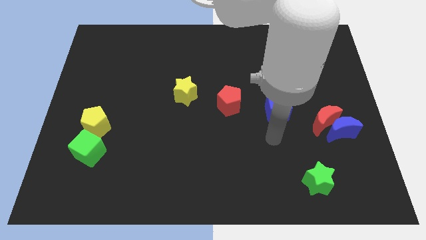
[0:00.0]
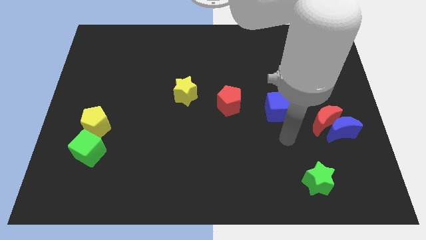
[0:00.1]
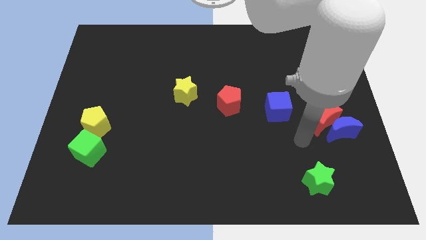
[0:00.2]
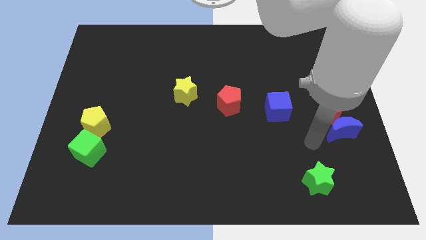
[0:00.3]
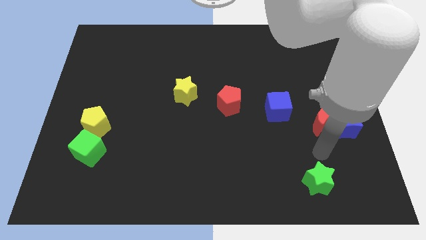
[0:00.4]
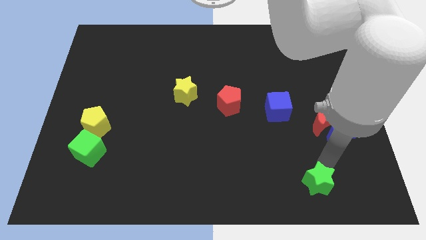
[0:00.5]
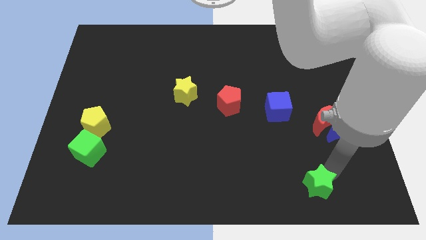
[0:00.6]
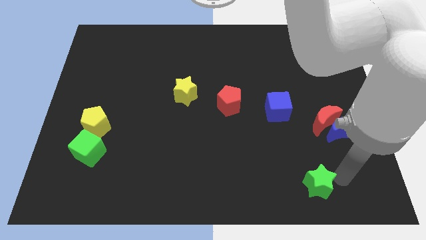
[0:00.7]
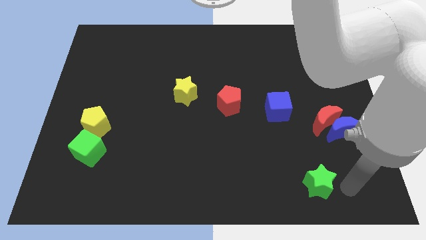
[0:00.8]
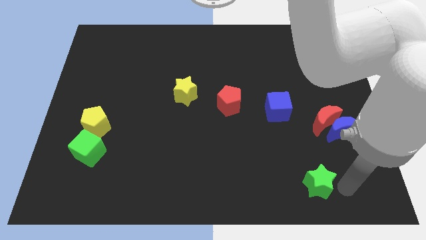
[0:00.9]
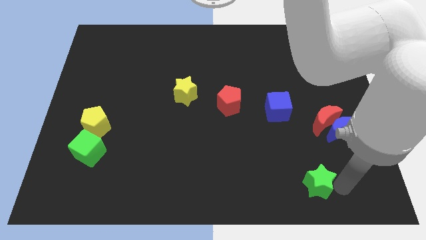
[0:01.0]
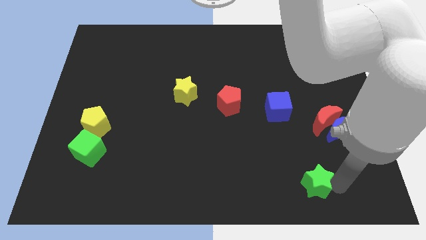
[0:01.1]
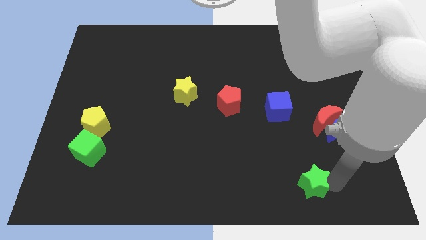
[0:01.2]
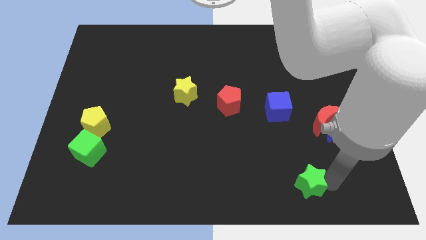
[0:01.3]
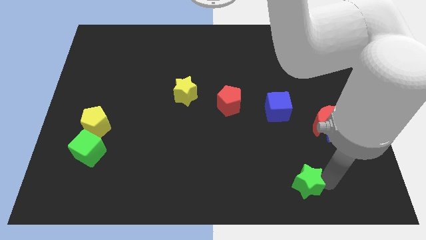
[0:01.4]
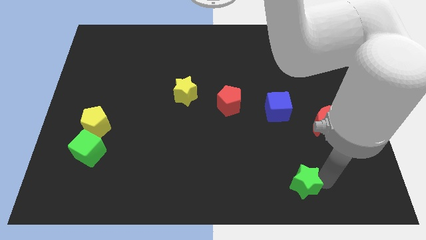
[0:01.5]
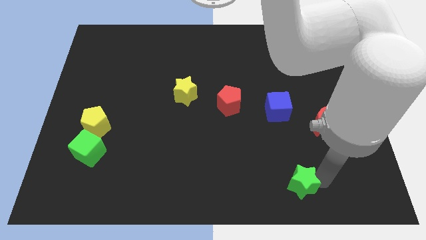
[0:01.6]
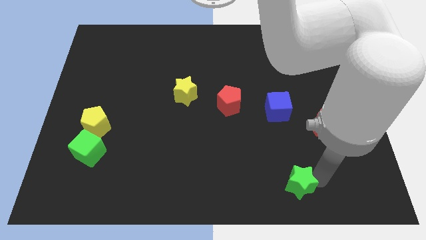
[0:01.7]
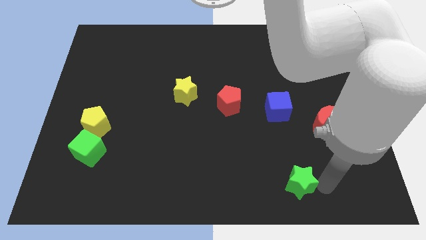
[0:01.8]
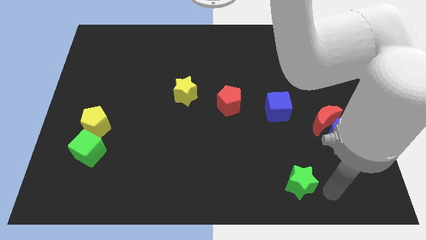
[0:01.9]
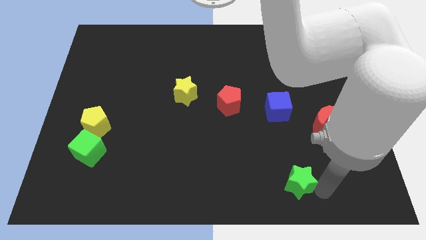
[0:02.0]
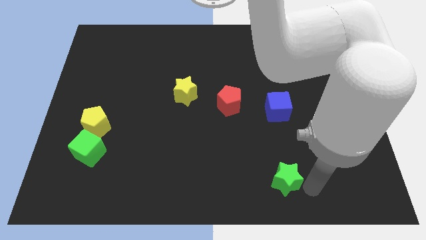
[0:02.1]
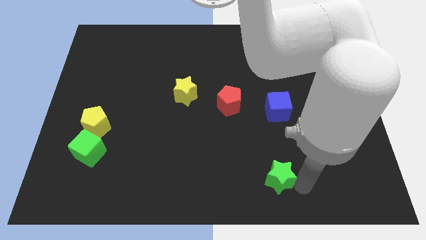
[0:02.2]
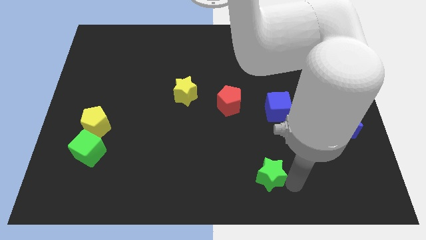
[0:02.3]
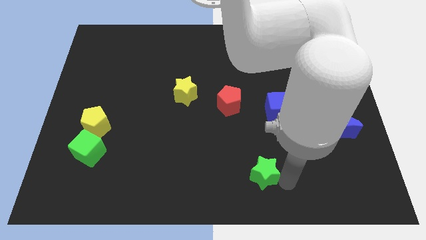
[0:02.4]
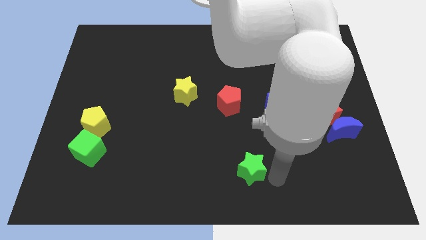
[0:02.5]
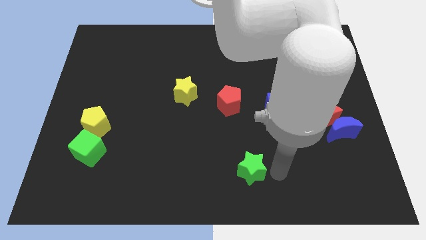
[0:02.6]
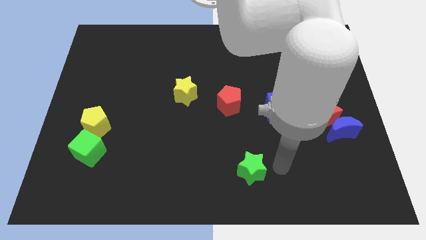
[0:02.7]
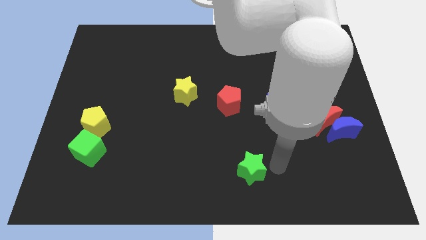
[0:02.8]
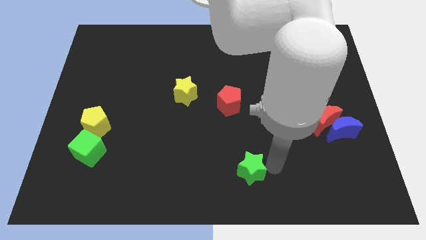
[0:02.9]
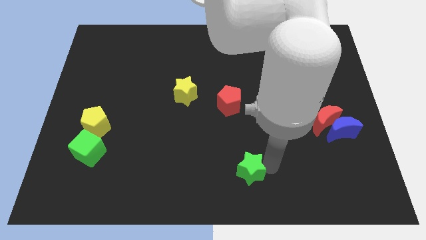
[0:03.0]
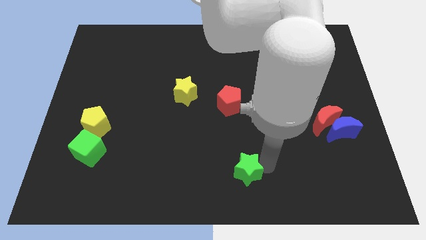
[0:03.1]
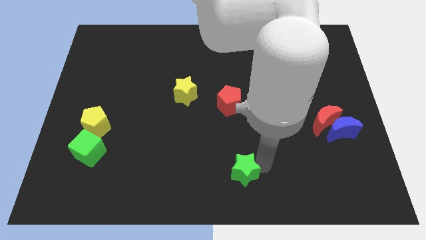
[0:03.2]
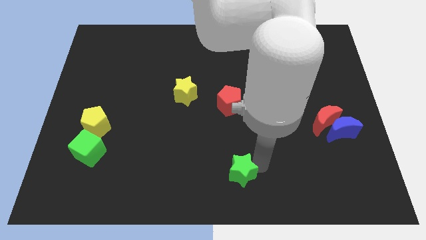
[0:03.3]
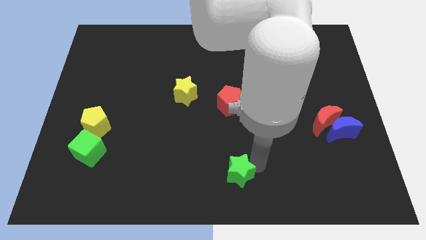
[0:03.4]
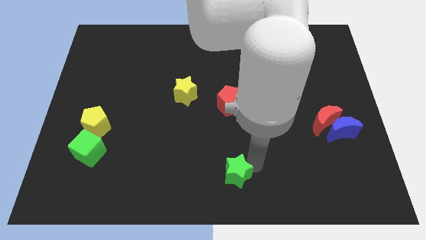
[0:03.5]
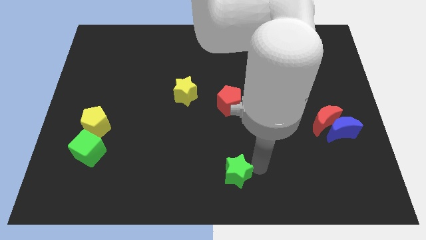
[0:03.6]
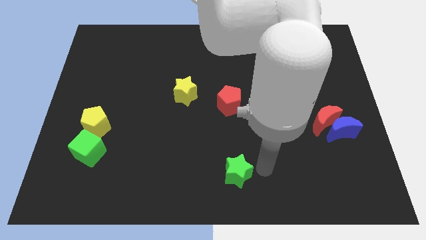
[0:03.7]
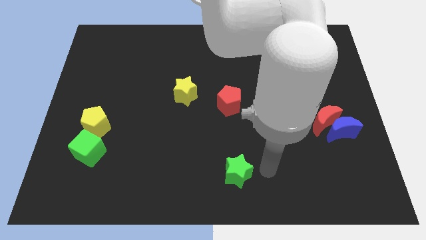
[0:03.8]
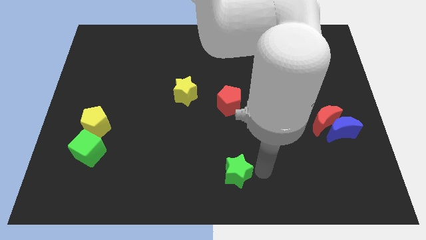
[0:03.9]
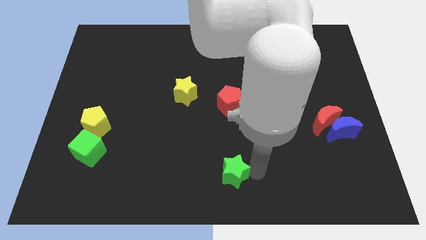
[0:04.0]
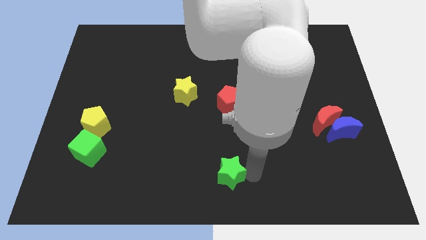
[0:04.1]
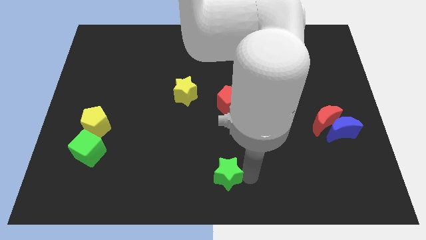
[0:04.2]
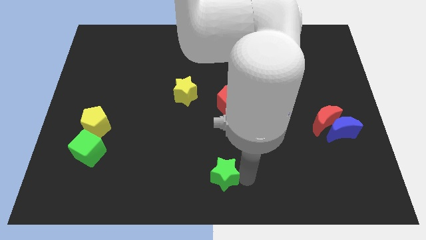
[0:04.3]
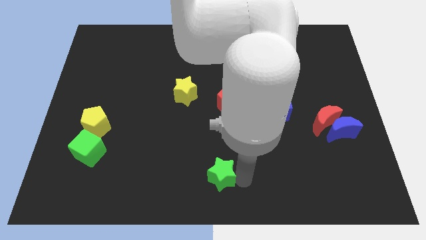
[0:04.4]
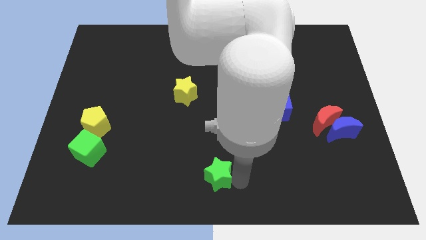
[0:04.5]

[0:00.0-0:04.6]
slide the green star left

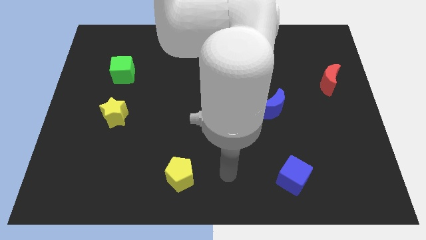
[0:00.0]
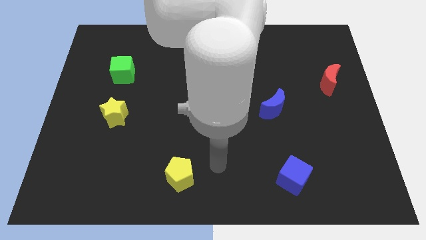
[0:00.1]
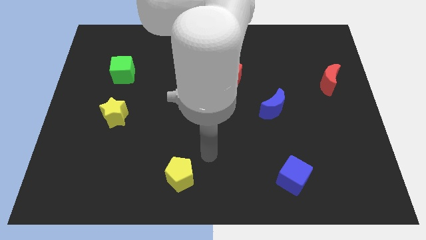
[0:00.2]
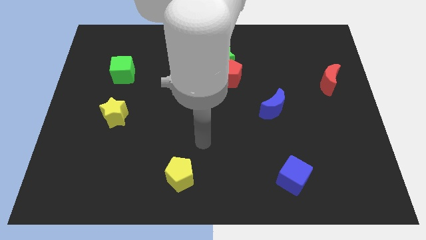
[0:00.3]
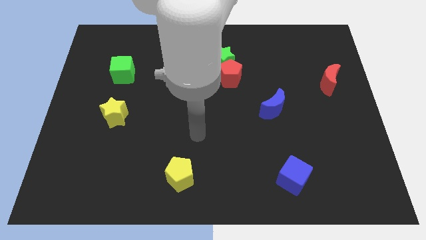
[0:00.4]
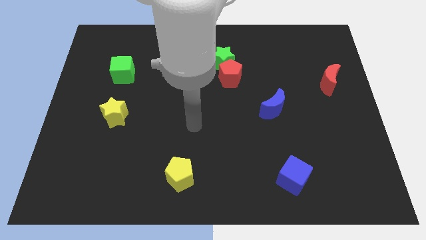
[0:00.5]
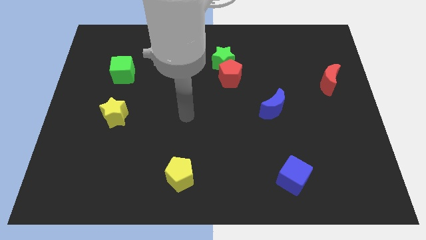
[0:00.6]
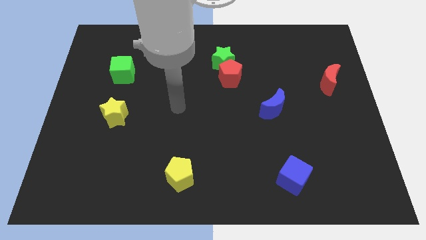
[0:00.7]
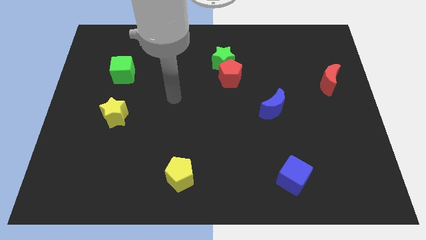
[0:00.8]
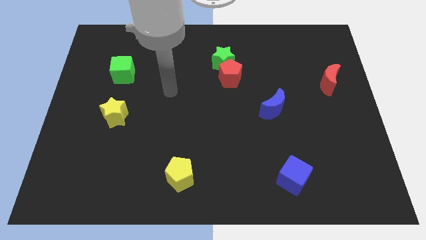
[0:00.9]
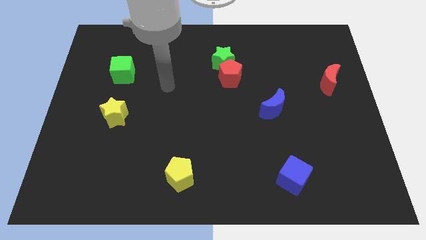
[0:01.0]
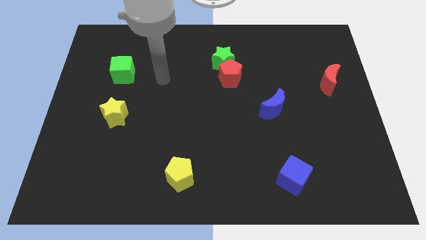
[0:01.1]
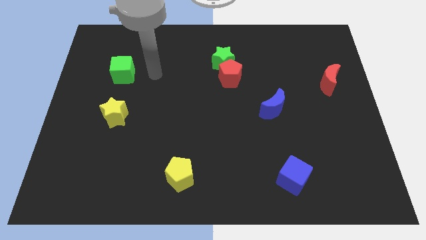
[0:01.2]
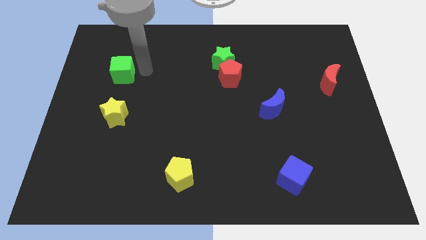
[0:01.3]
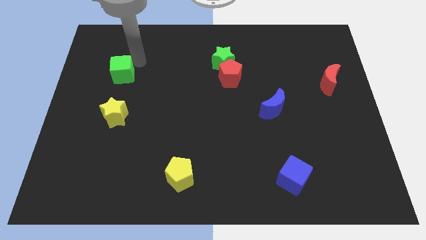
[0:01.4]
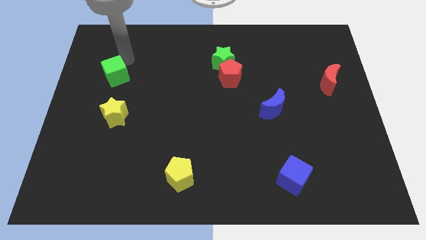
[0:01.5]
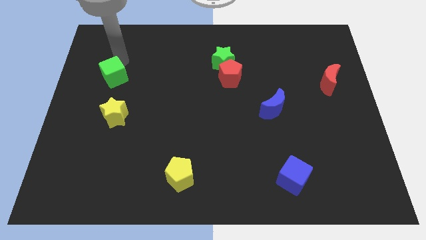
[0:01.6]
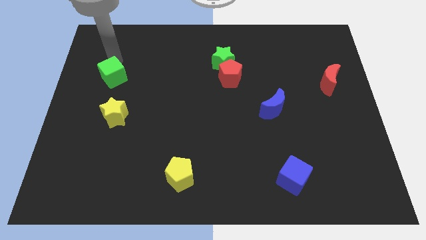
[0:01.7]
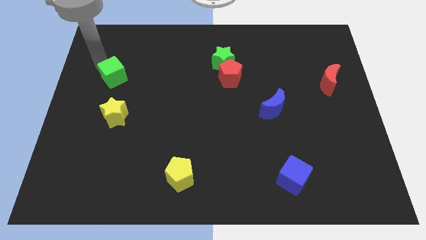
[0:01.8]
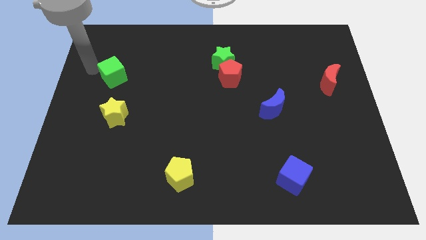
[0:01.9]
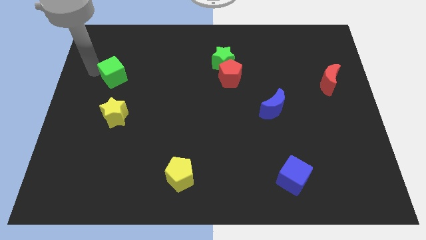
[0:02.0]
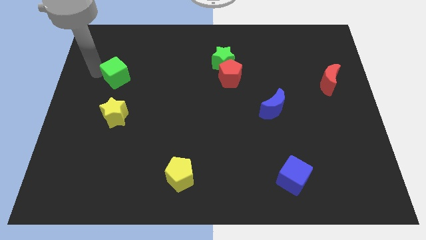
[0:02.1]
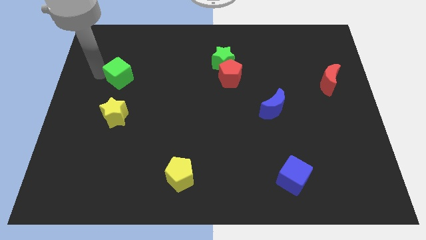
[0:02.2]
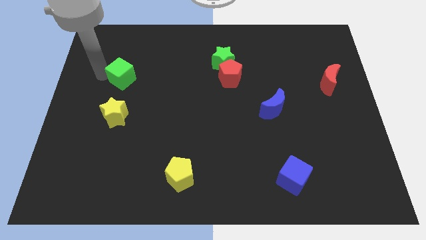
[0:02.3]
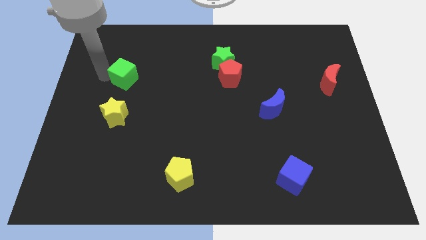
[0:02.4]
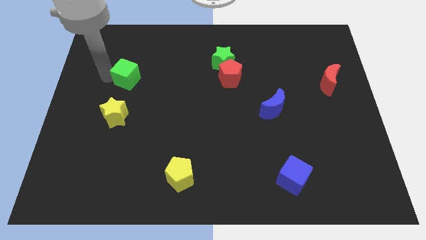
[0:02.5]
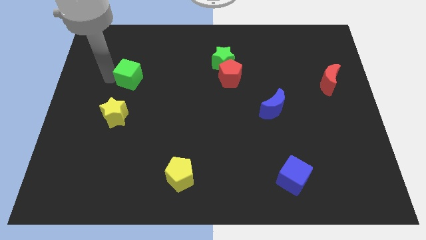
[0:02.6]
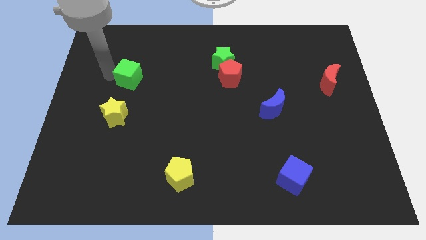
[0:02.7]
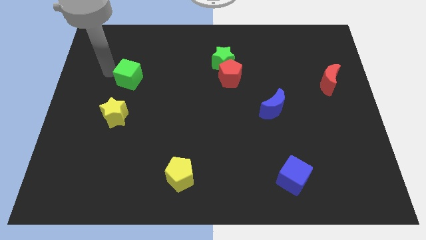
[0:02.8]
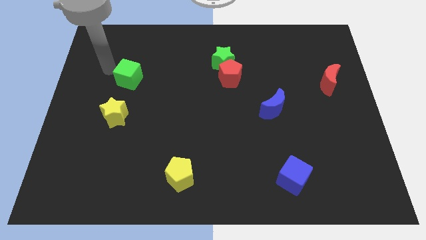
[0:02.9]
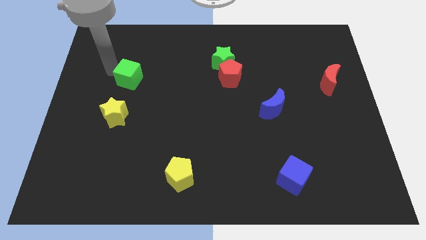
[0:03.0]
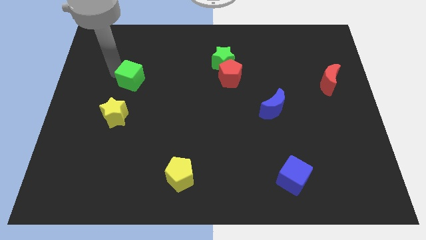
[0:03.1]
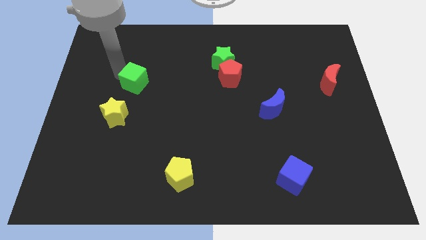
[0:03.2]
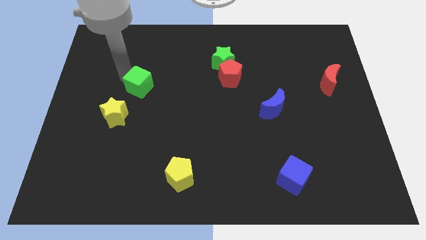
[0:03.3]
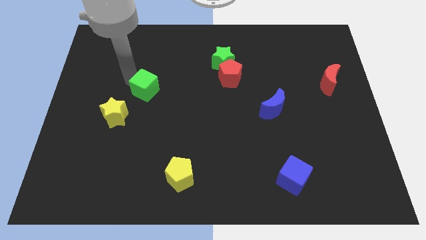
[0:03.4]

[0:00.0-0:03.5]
move the green cube a little downwards and then right

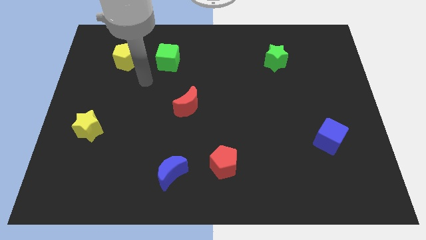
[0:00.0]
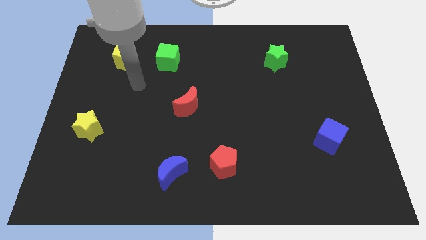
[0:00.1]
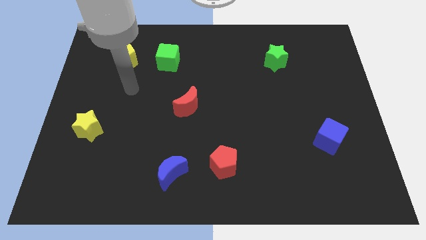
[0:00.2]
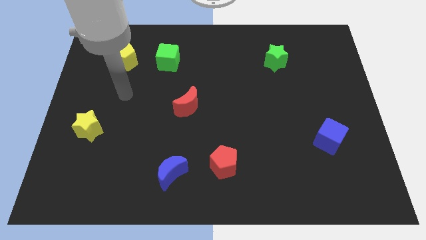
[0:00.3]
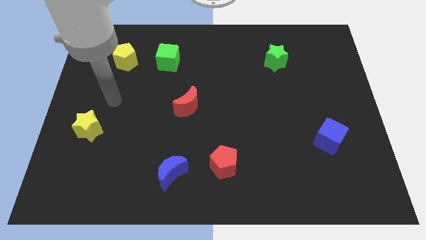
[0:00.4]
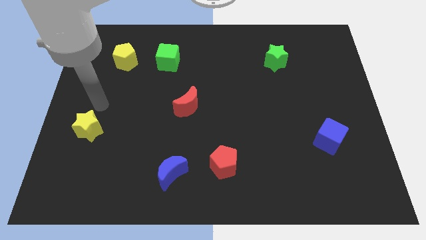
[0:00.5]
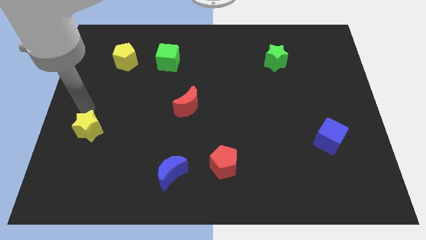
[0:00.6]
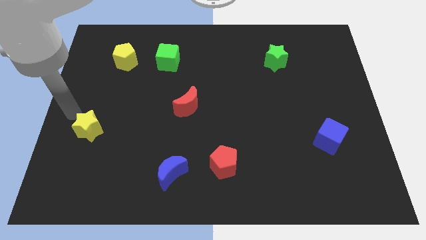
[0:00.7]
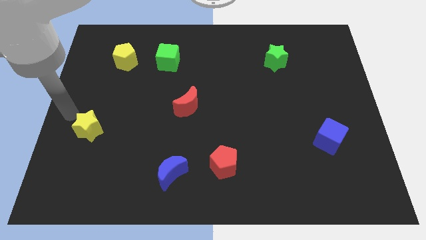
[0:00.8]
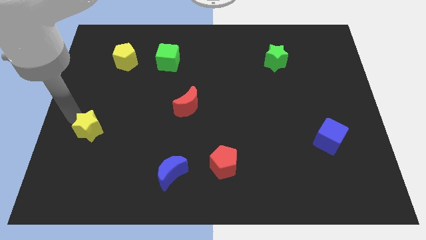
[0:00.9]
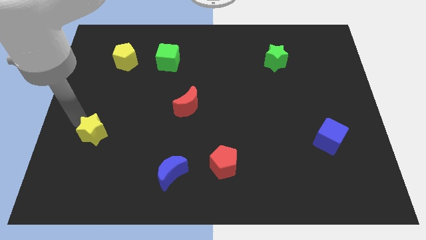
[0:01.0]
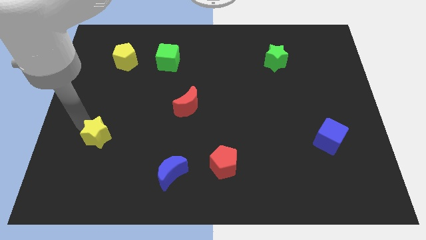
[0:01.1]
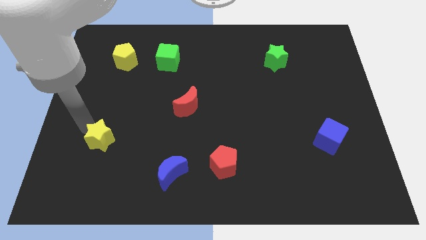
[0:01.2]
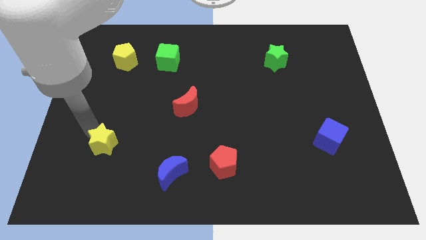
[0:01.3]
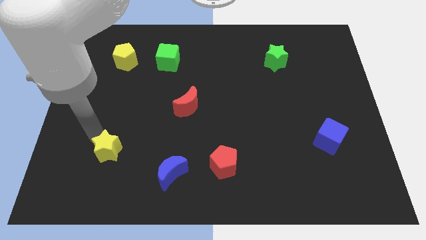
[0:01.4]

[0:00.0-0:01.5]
move the yellow star a bit down and to the right
